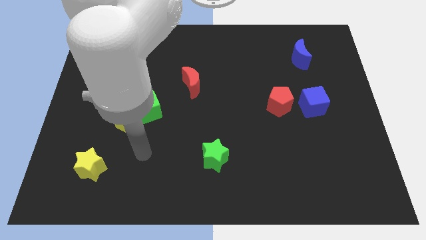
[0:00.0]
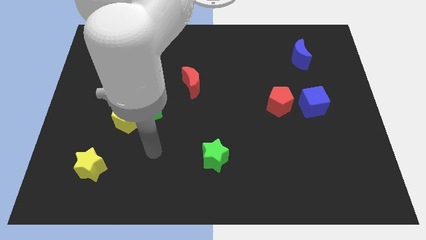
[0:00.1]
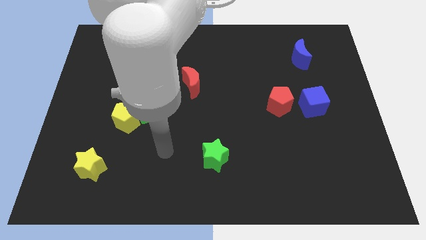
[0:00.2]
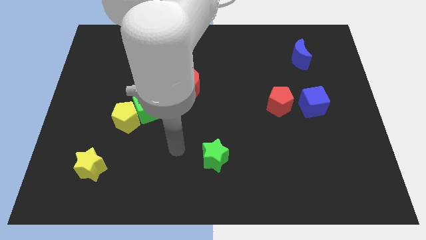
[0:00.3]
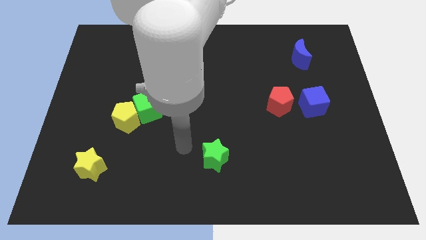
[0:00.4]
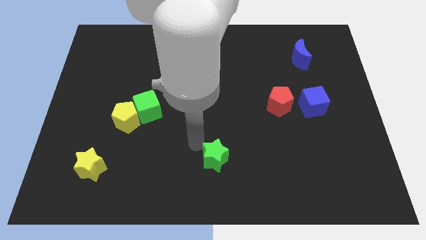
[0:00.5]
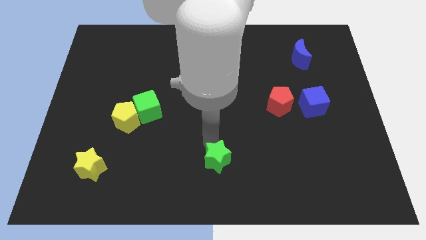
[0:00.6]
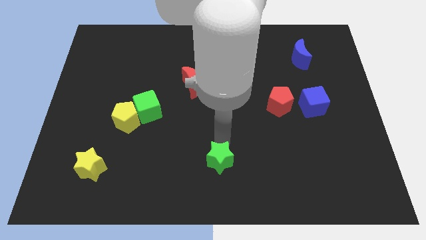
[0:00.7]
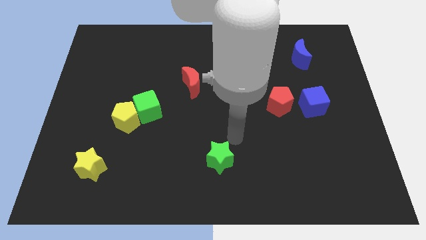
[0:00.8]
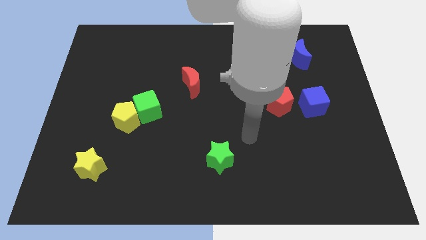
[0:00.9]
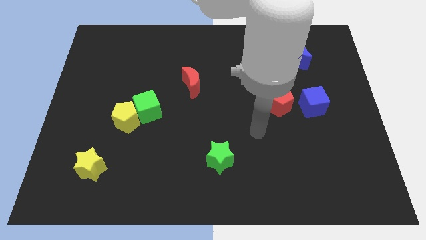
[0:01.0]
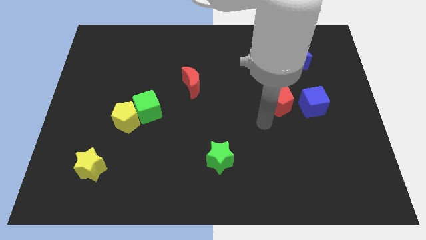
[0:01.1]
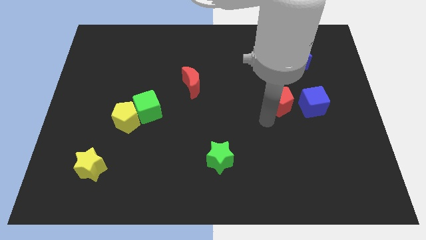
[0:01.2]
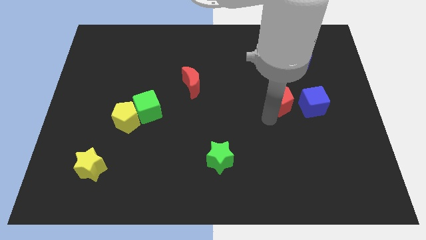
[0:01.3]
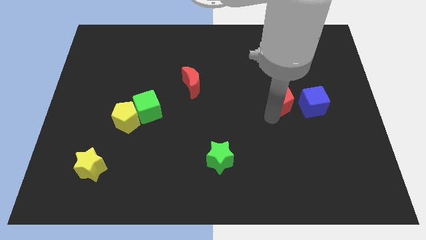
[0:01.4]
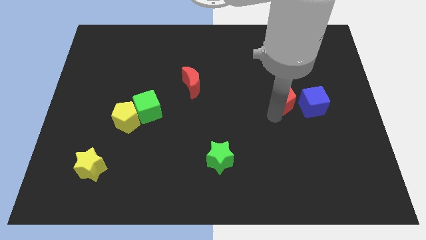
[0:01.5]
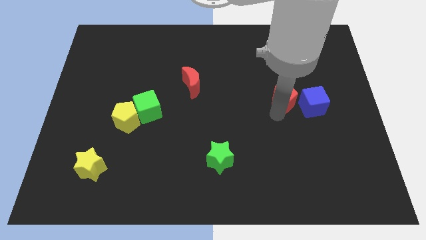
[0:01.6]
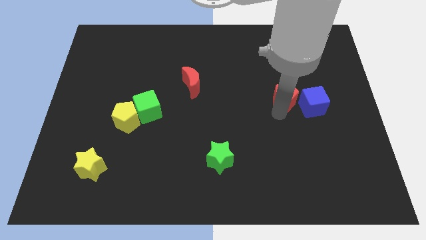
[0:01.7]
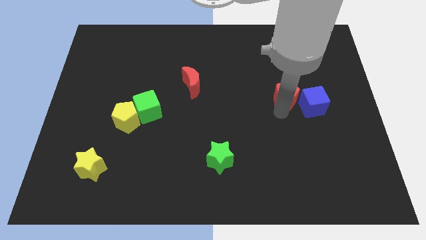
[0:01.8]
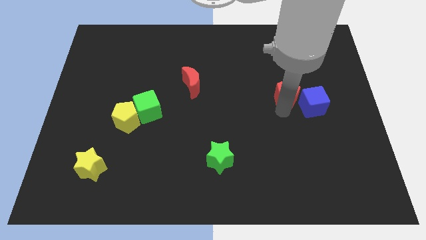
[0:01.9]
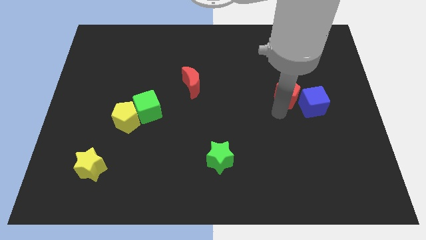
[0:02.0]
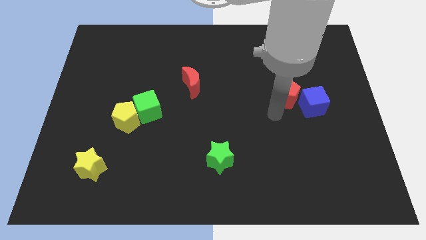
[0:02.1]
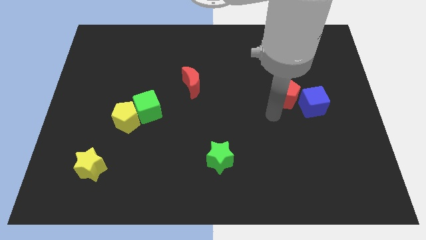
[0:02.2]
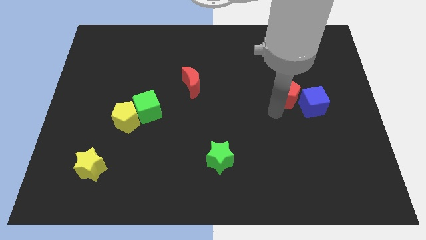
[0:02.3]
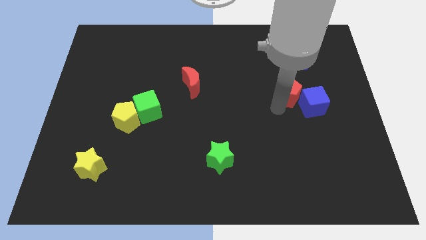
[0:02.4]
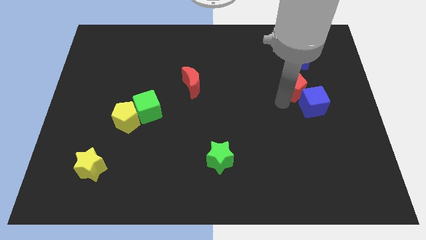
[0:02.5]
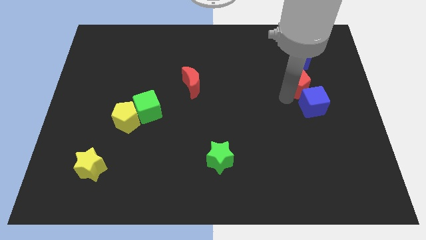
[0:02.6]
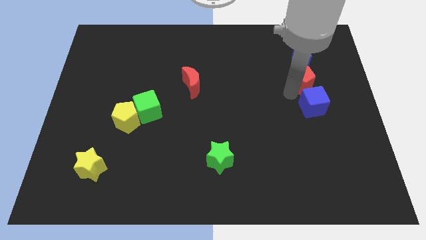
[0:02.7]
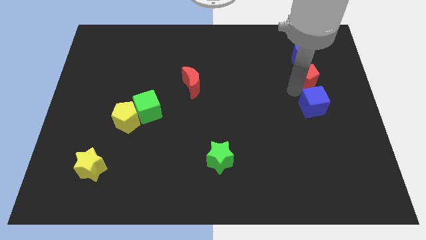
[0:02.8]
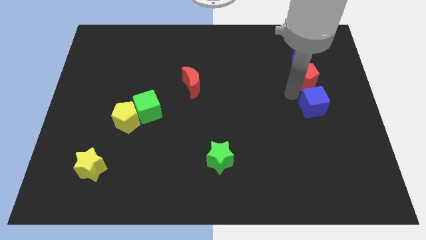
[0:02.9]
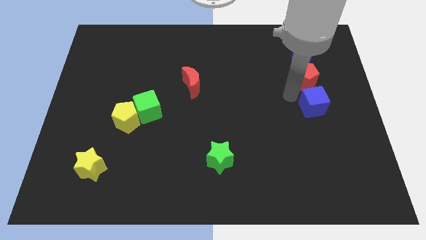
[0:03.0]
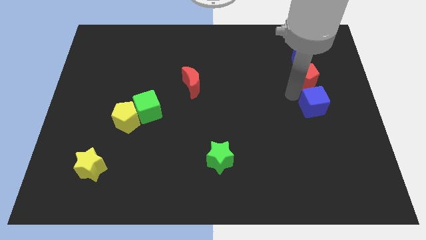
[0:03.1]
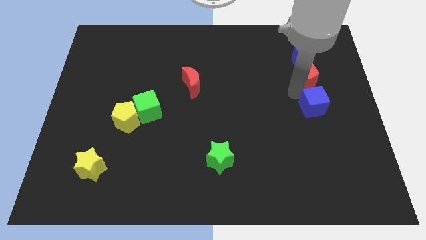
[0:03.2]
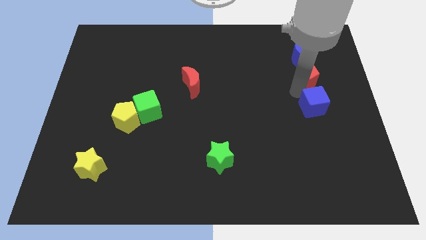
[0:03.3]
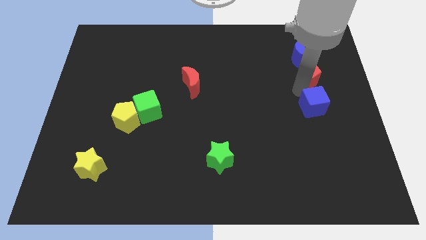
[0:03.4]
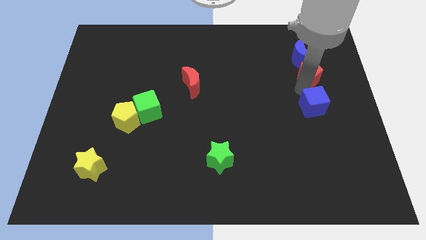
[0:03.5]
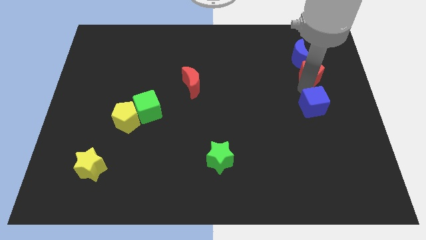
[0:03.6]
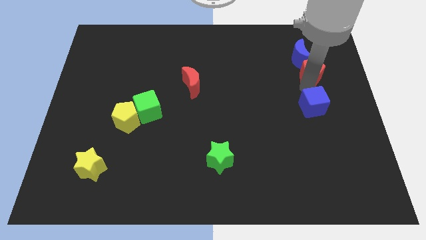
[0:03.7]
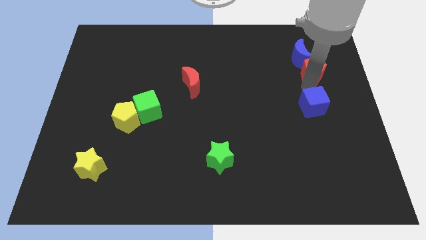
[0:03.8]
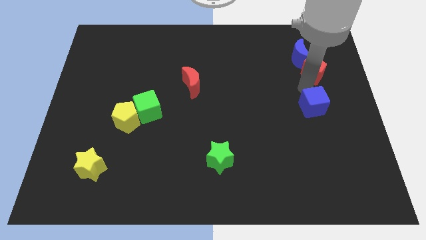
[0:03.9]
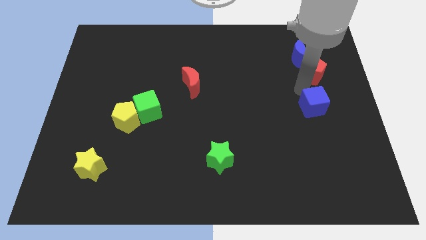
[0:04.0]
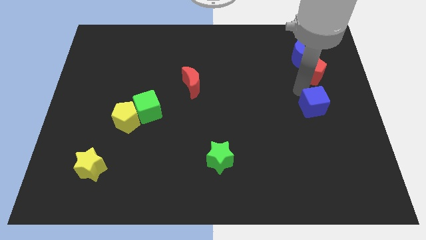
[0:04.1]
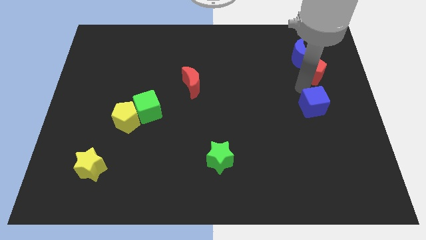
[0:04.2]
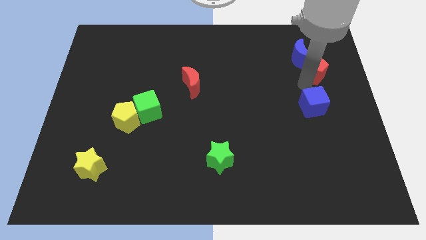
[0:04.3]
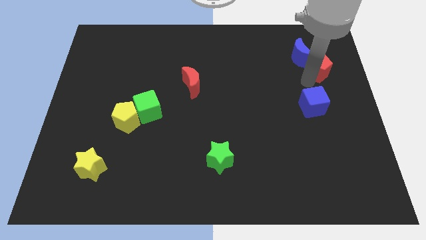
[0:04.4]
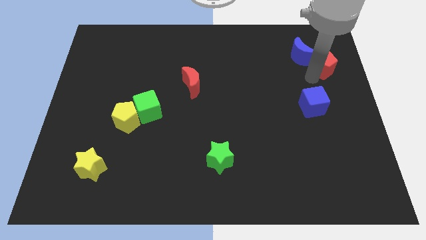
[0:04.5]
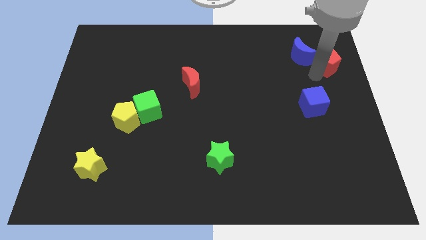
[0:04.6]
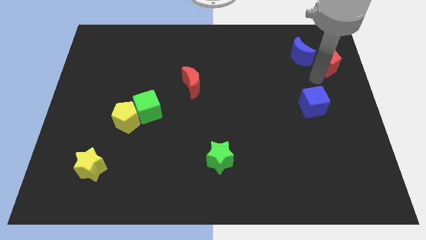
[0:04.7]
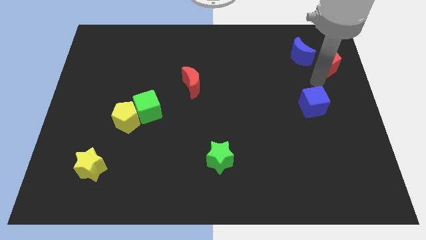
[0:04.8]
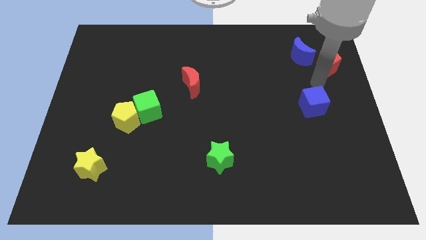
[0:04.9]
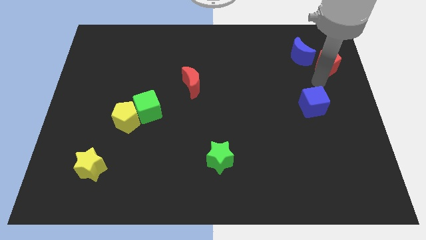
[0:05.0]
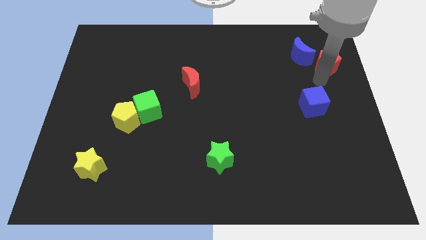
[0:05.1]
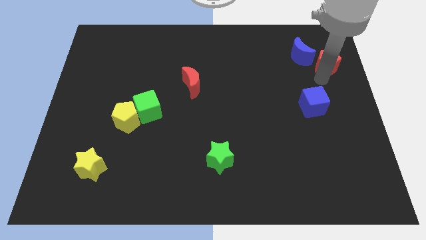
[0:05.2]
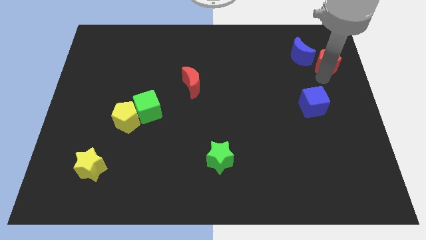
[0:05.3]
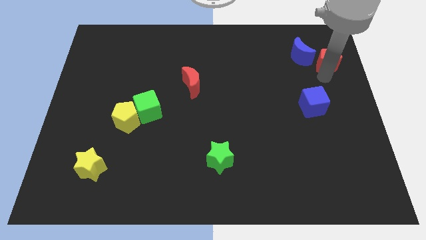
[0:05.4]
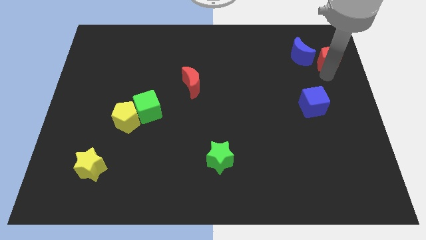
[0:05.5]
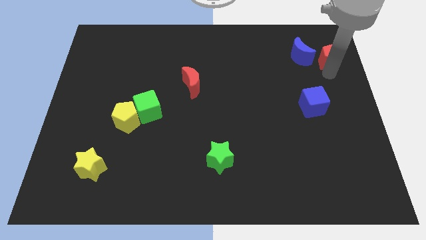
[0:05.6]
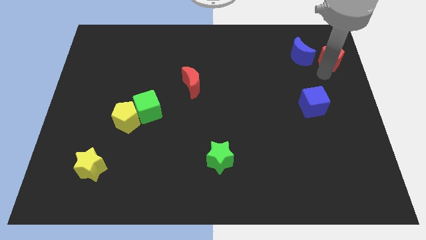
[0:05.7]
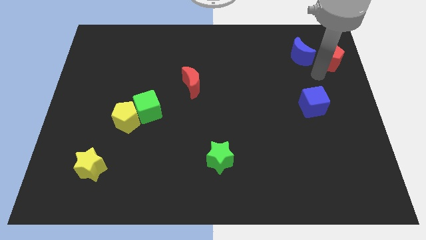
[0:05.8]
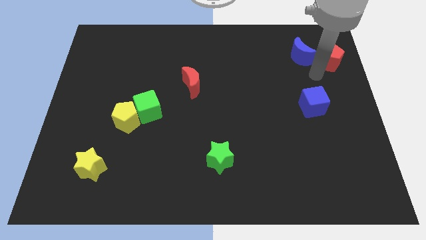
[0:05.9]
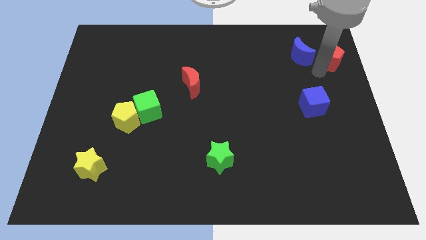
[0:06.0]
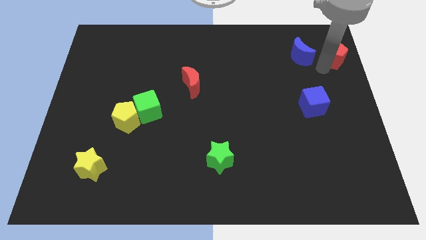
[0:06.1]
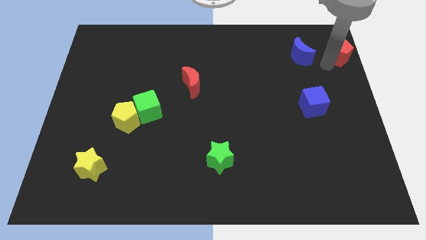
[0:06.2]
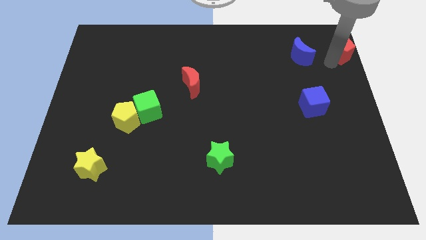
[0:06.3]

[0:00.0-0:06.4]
slide the red pentagon to the top right corner

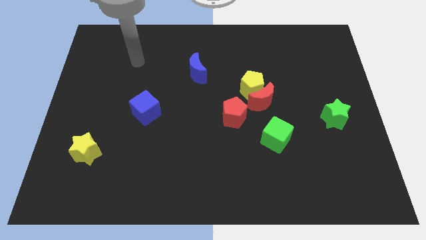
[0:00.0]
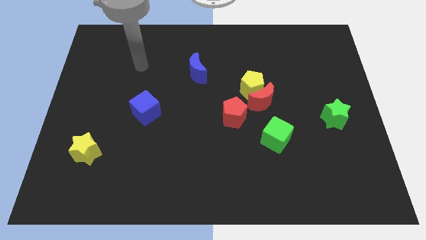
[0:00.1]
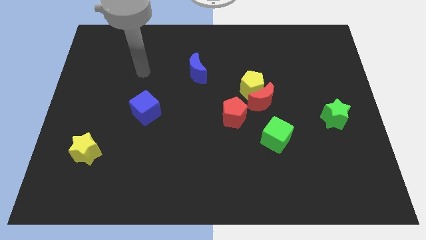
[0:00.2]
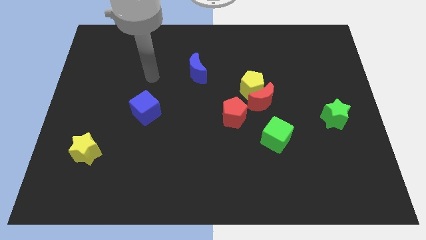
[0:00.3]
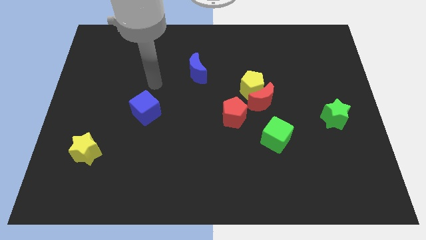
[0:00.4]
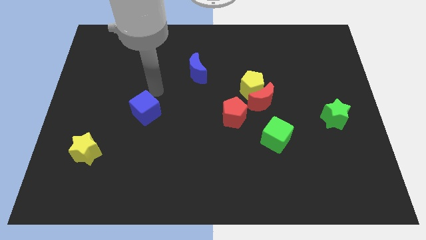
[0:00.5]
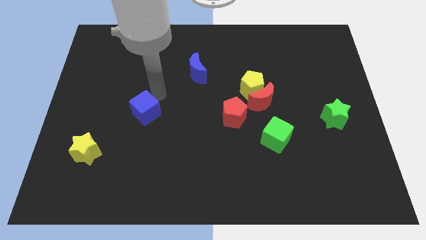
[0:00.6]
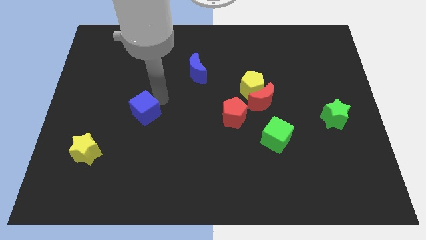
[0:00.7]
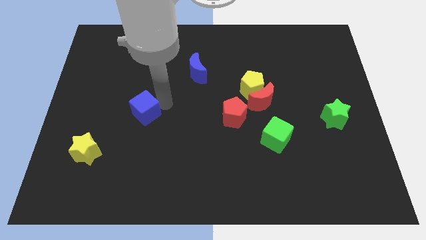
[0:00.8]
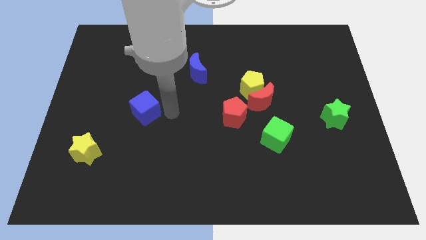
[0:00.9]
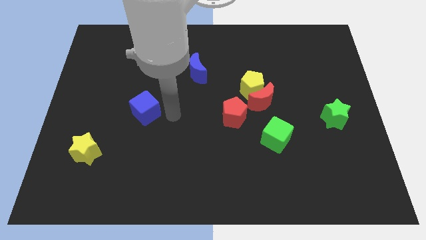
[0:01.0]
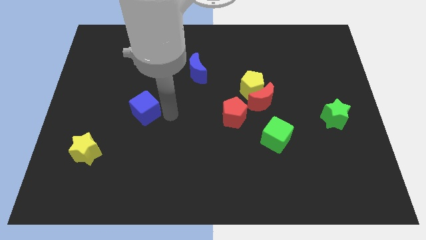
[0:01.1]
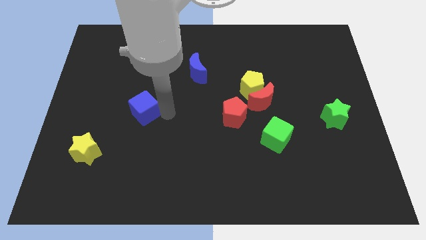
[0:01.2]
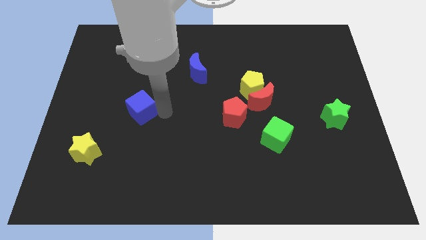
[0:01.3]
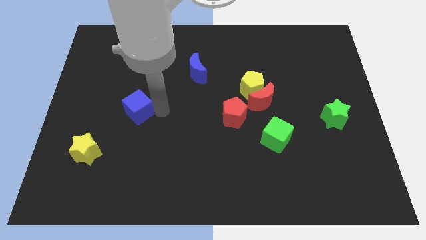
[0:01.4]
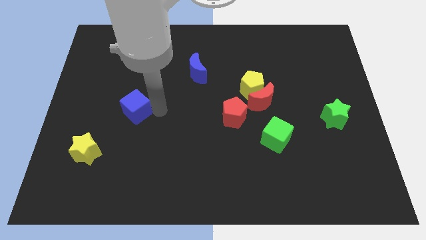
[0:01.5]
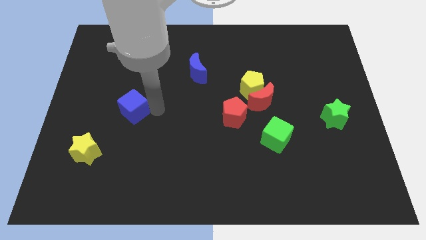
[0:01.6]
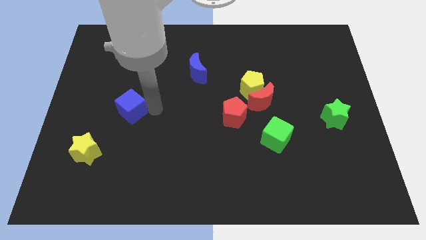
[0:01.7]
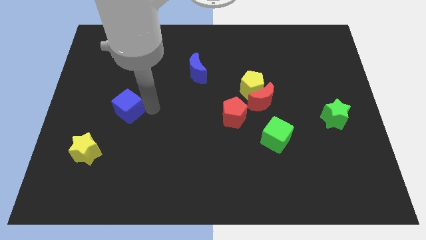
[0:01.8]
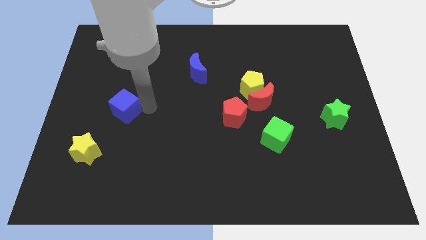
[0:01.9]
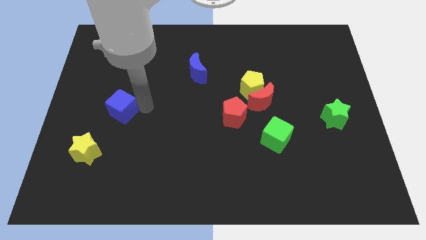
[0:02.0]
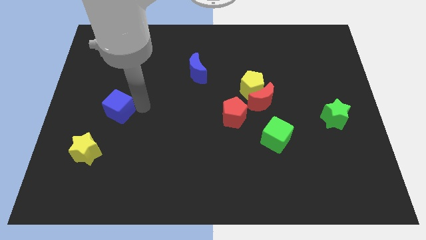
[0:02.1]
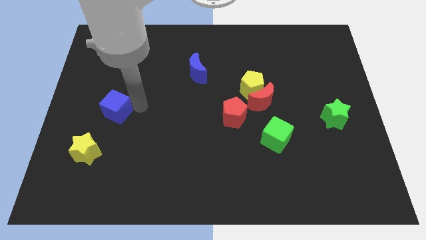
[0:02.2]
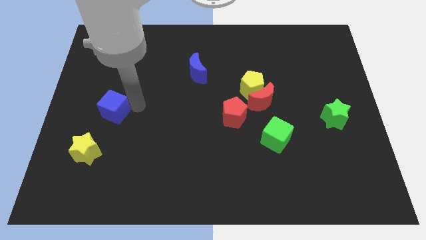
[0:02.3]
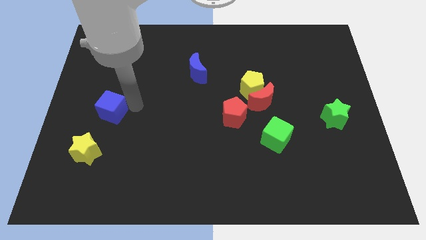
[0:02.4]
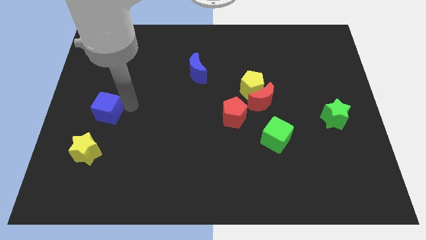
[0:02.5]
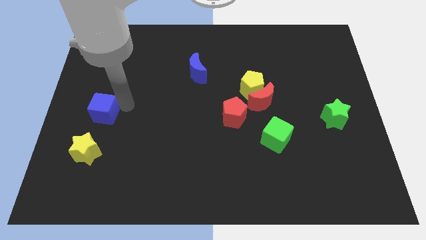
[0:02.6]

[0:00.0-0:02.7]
put the blue cube to the left side of the board
